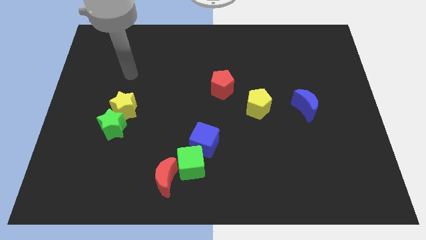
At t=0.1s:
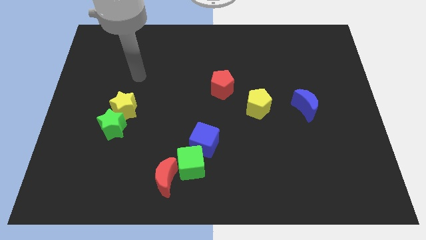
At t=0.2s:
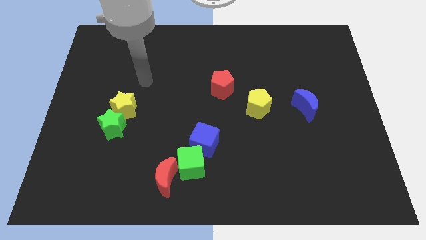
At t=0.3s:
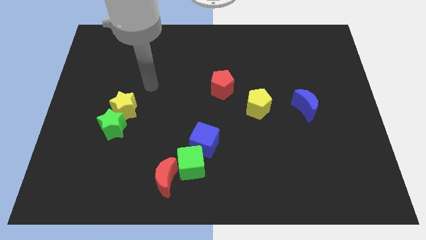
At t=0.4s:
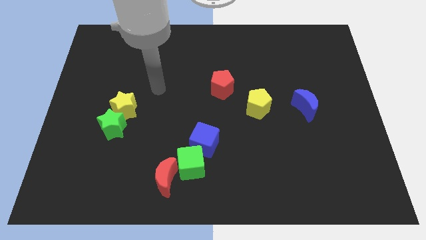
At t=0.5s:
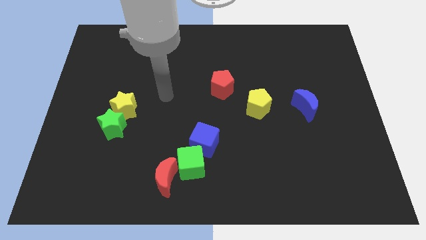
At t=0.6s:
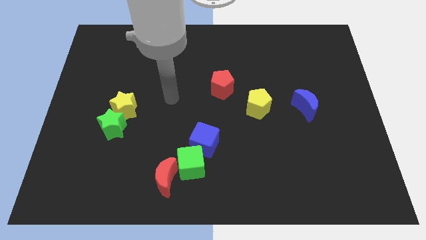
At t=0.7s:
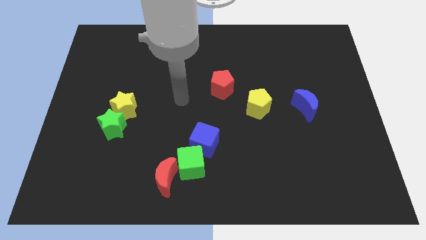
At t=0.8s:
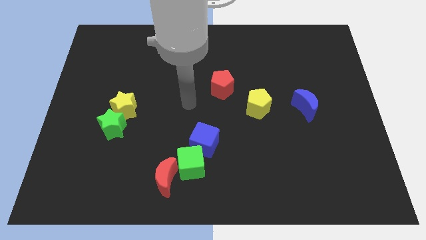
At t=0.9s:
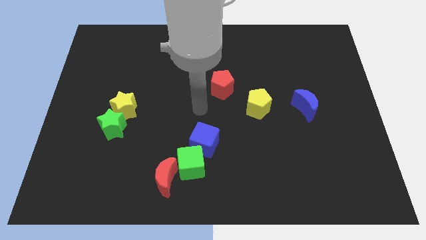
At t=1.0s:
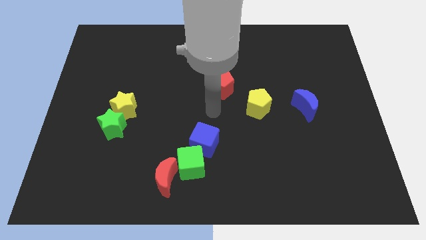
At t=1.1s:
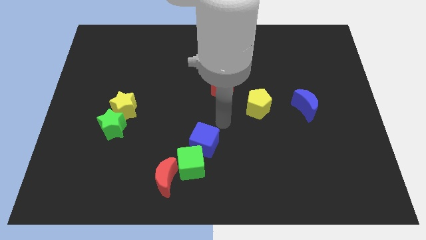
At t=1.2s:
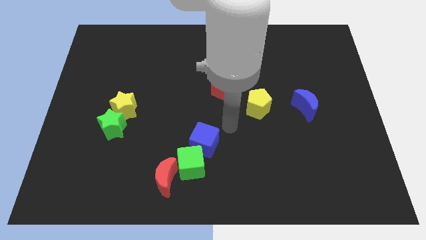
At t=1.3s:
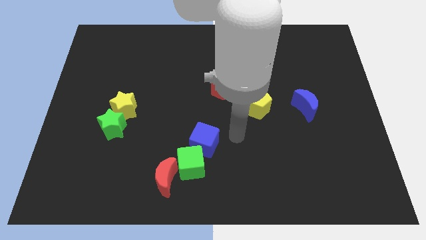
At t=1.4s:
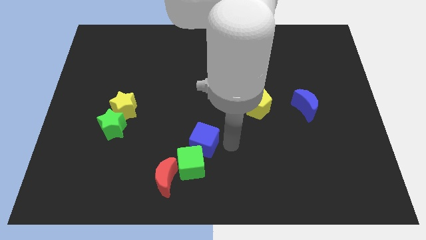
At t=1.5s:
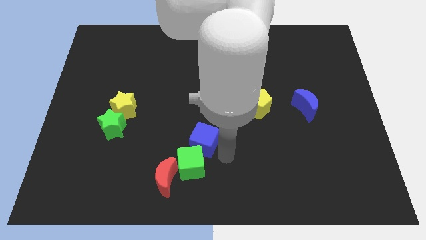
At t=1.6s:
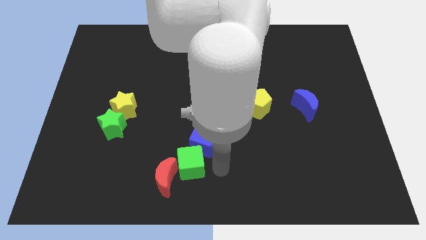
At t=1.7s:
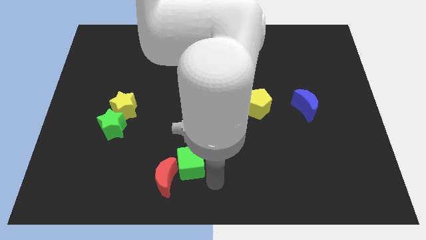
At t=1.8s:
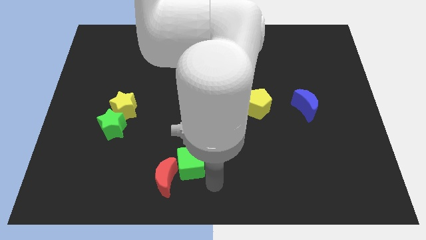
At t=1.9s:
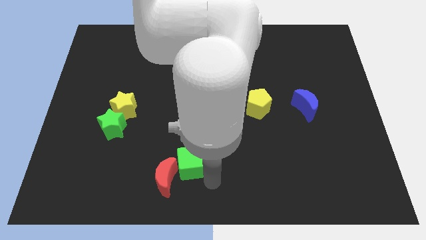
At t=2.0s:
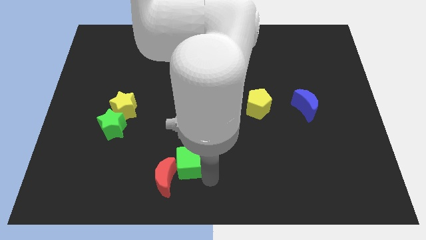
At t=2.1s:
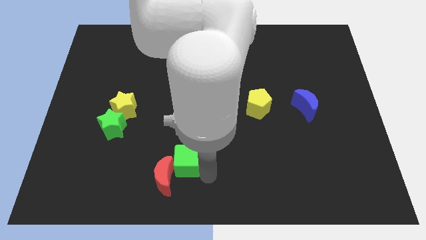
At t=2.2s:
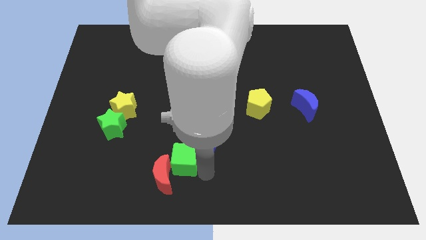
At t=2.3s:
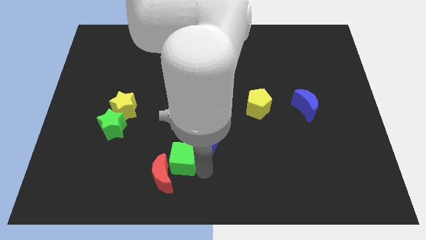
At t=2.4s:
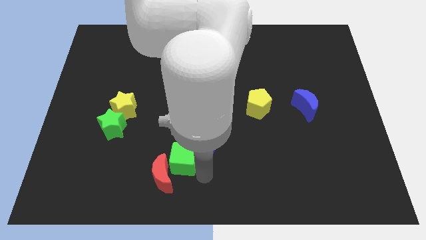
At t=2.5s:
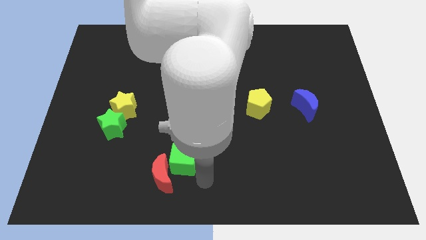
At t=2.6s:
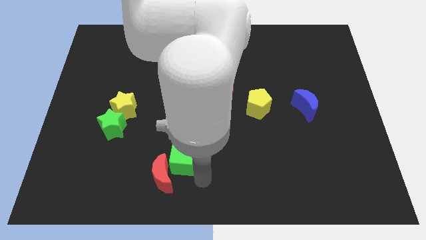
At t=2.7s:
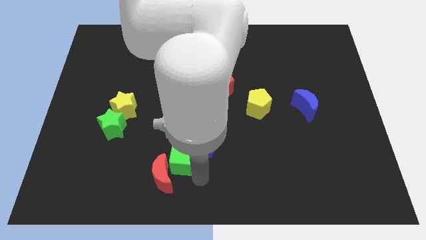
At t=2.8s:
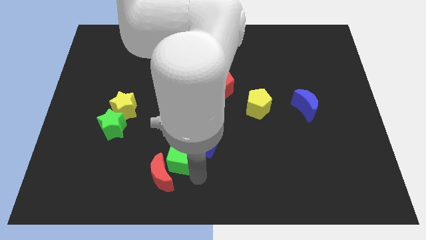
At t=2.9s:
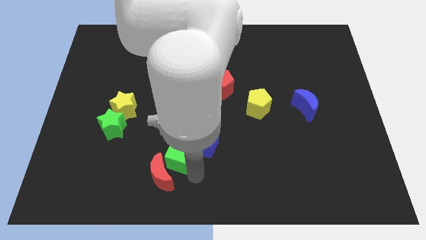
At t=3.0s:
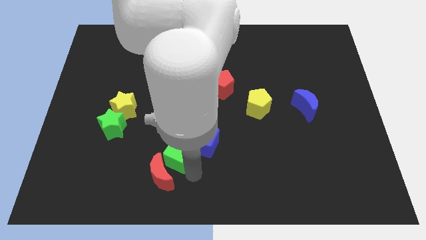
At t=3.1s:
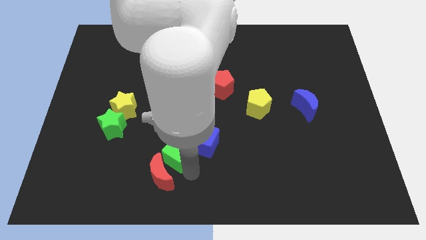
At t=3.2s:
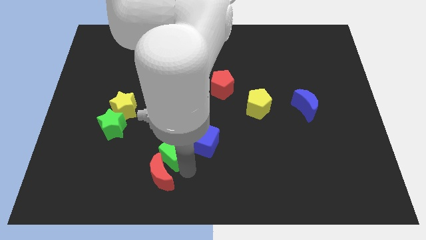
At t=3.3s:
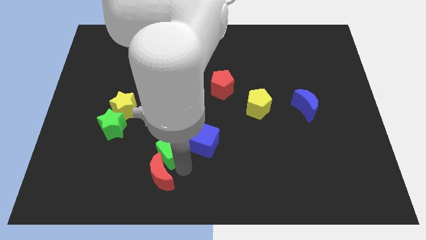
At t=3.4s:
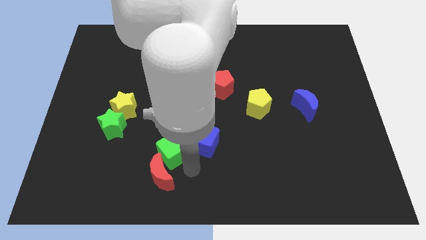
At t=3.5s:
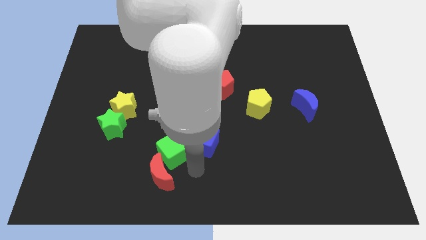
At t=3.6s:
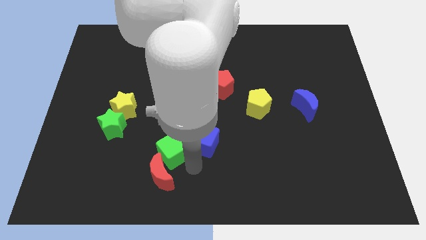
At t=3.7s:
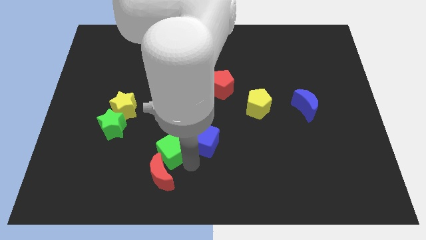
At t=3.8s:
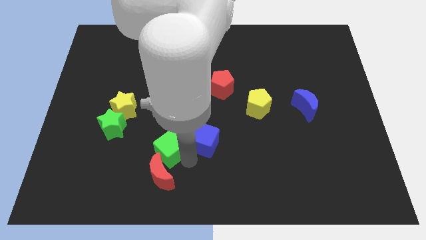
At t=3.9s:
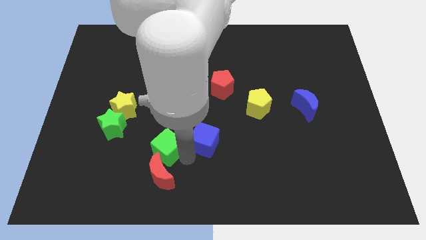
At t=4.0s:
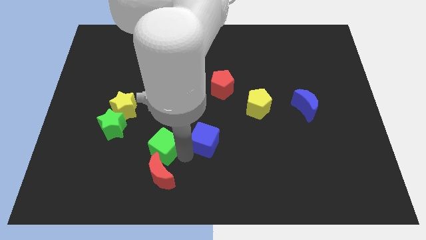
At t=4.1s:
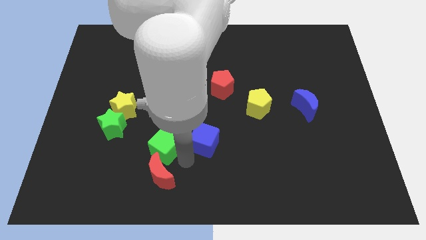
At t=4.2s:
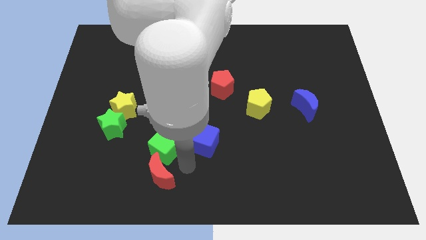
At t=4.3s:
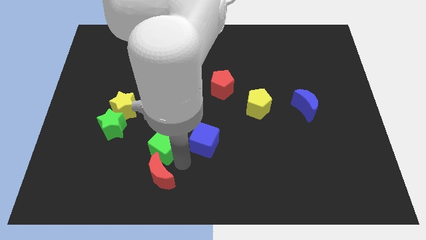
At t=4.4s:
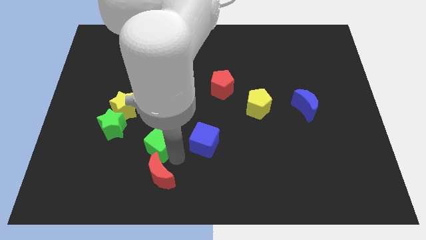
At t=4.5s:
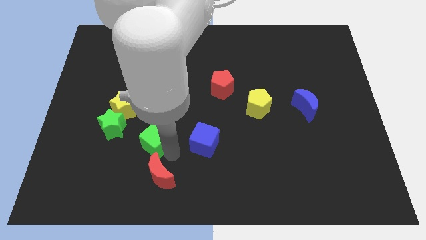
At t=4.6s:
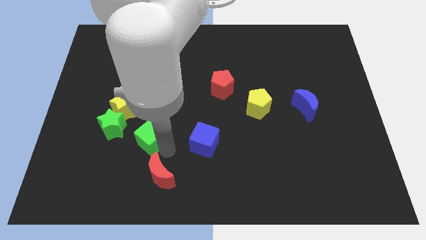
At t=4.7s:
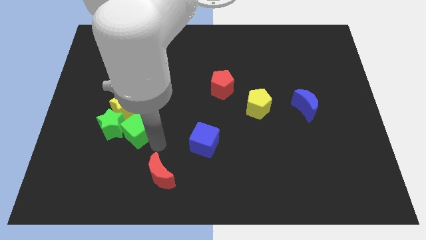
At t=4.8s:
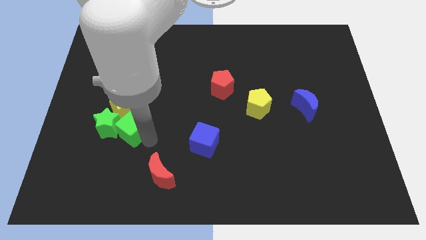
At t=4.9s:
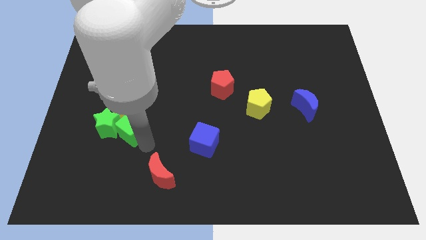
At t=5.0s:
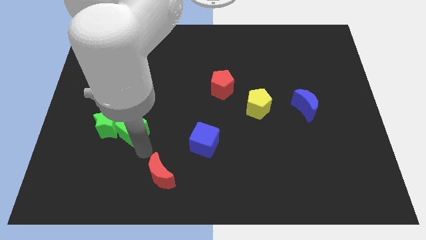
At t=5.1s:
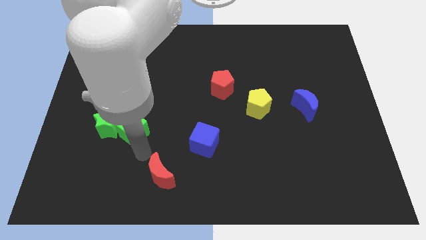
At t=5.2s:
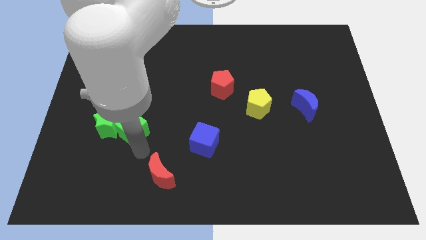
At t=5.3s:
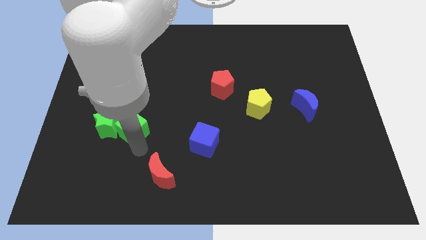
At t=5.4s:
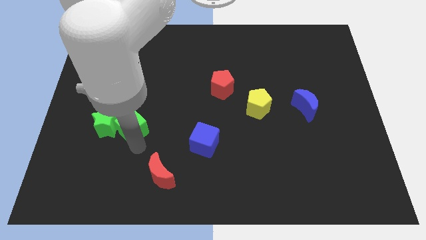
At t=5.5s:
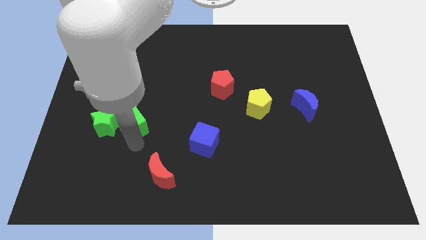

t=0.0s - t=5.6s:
push the green cube towards the yellow star

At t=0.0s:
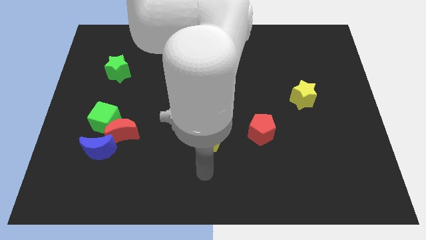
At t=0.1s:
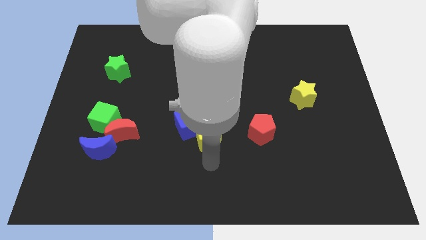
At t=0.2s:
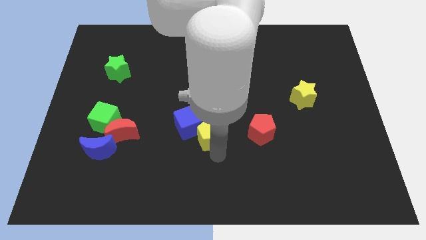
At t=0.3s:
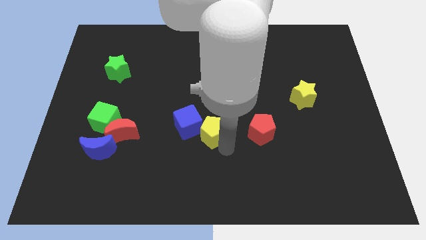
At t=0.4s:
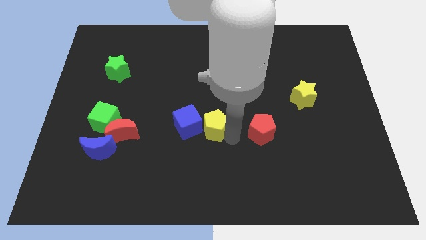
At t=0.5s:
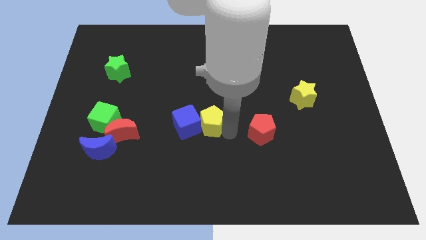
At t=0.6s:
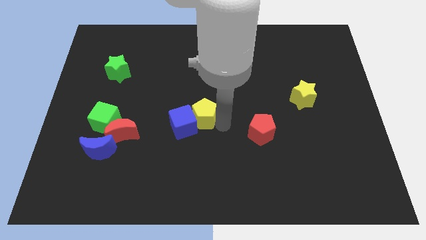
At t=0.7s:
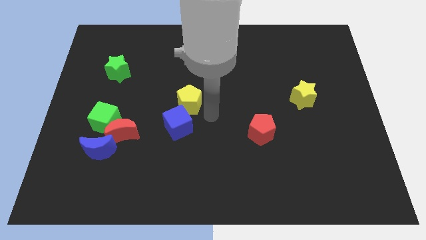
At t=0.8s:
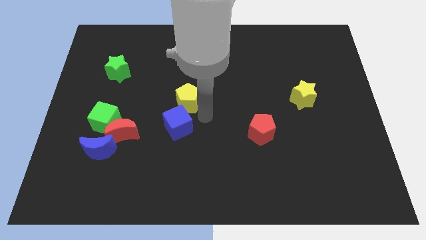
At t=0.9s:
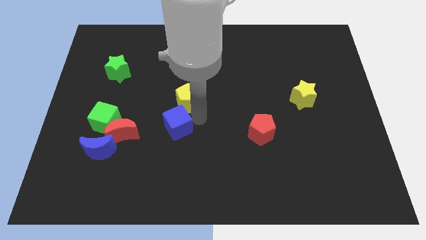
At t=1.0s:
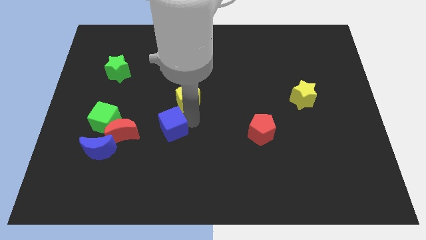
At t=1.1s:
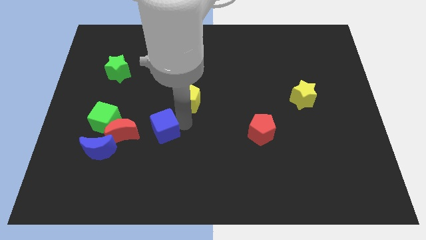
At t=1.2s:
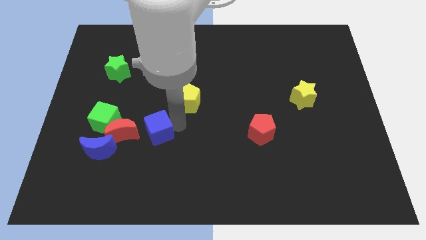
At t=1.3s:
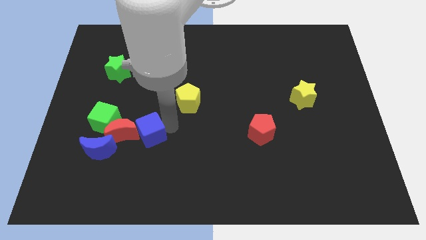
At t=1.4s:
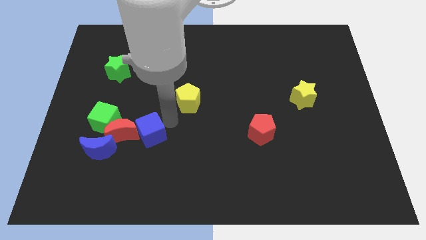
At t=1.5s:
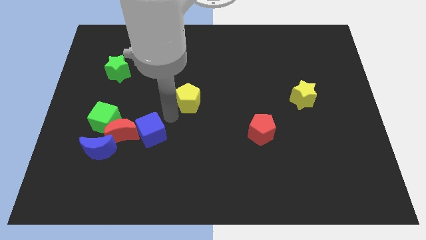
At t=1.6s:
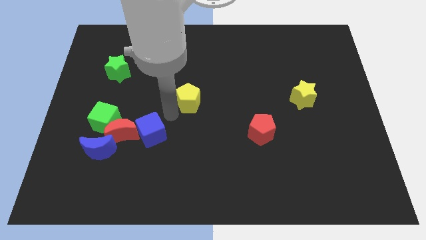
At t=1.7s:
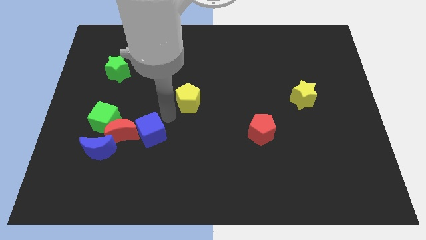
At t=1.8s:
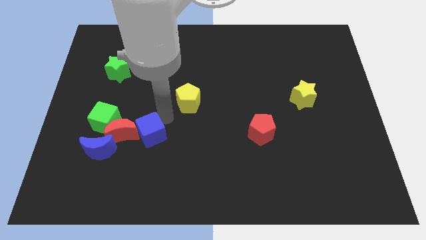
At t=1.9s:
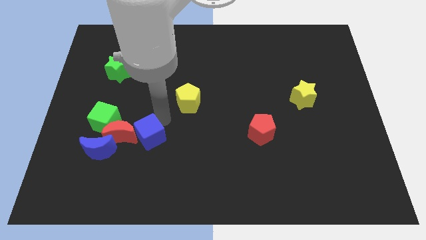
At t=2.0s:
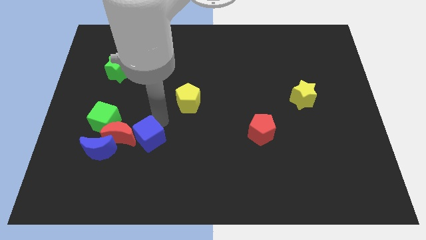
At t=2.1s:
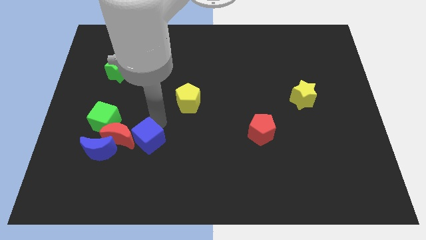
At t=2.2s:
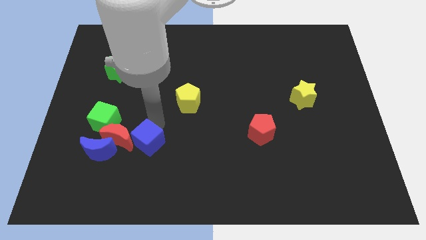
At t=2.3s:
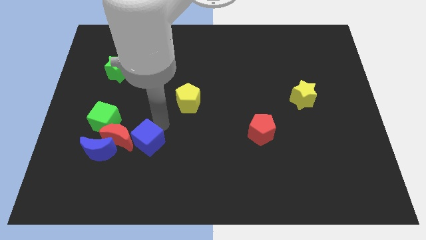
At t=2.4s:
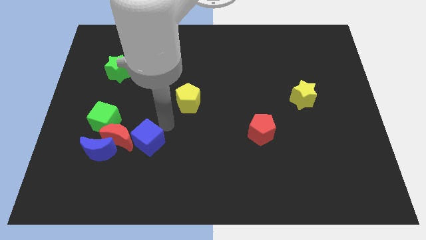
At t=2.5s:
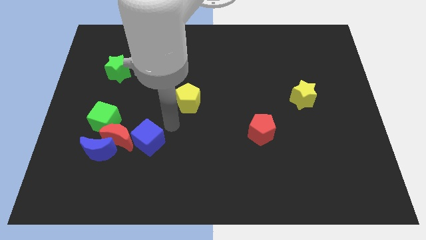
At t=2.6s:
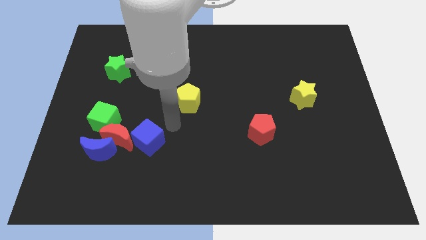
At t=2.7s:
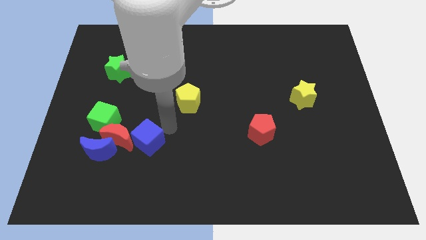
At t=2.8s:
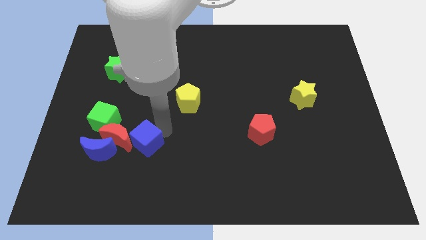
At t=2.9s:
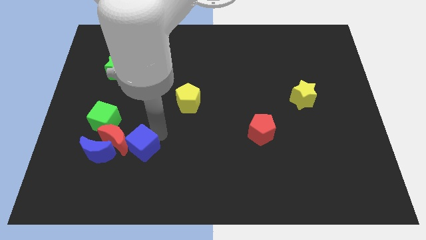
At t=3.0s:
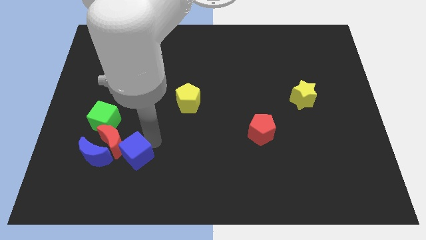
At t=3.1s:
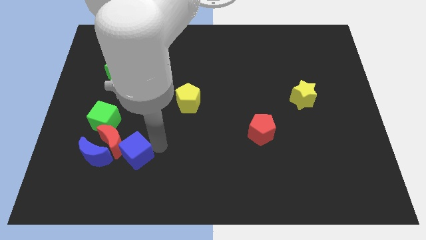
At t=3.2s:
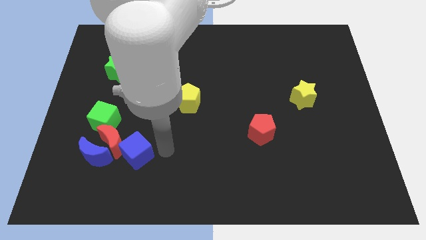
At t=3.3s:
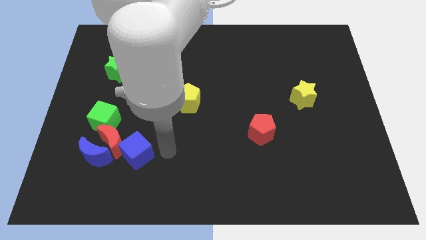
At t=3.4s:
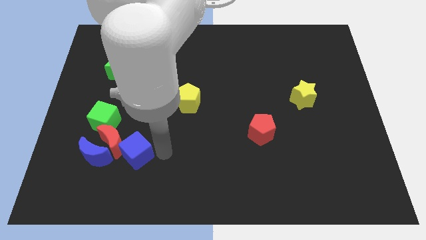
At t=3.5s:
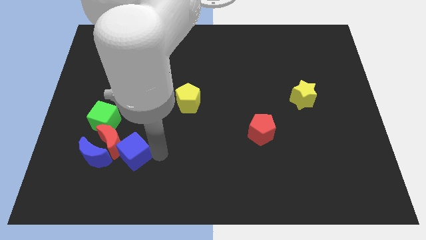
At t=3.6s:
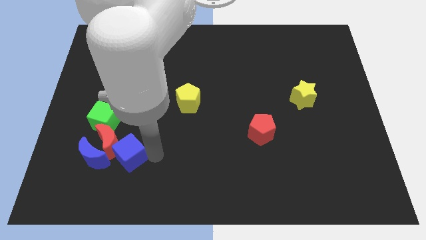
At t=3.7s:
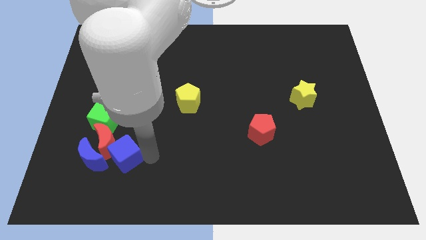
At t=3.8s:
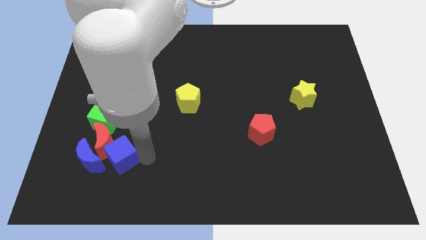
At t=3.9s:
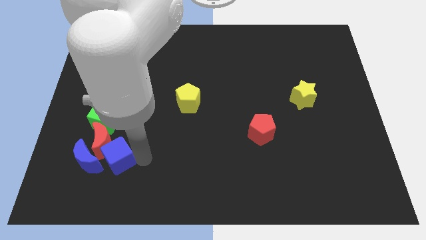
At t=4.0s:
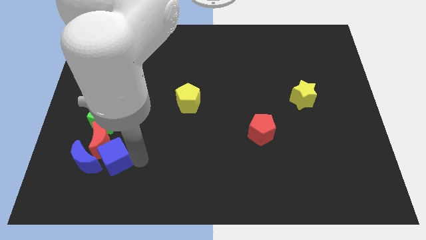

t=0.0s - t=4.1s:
slide the blue cube towards the blue moon
